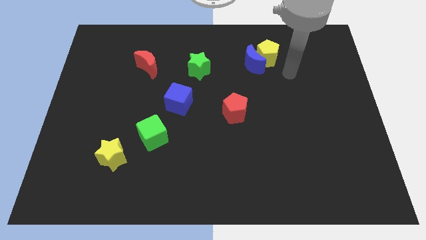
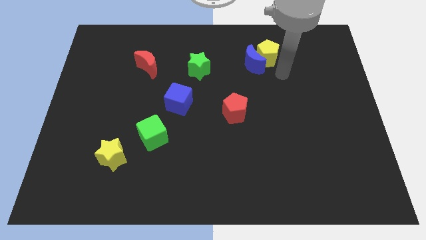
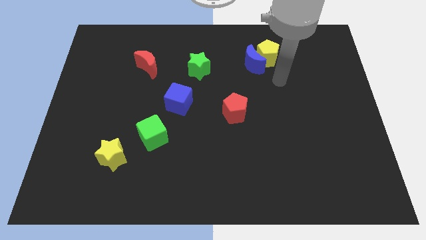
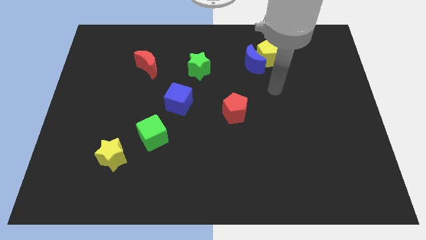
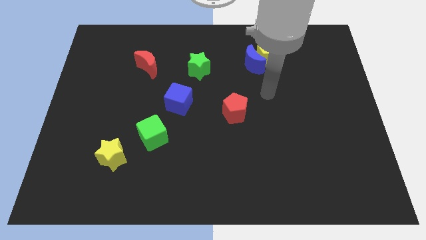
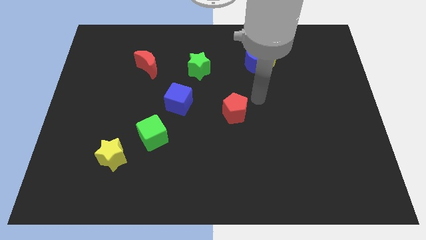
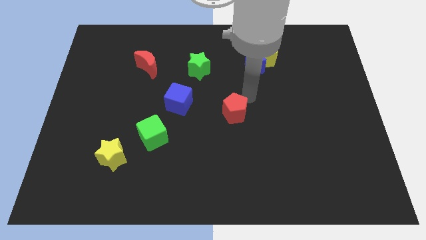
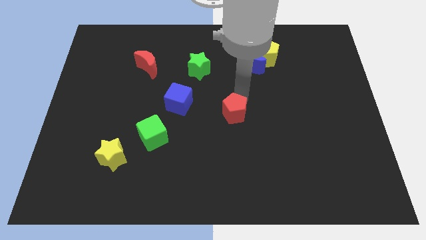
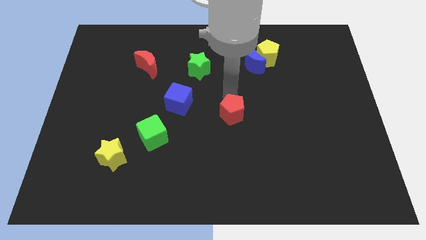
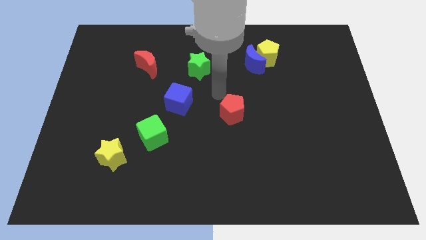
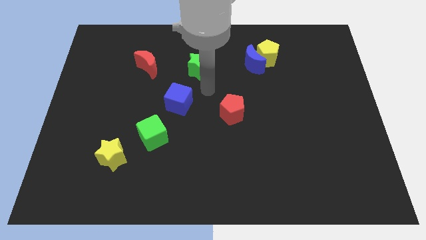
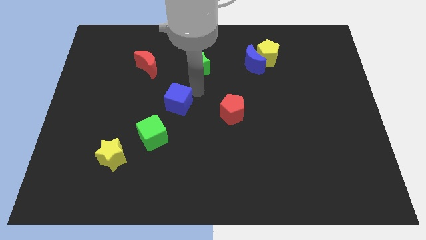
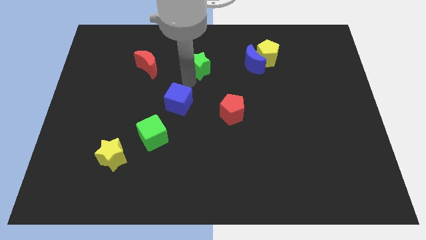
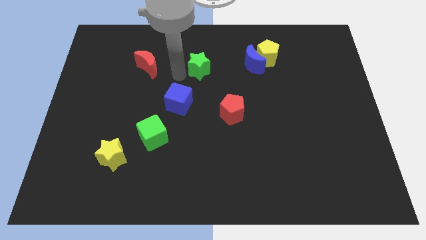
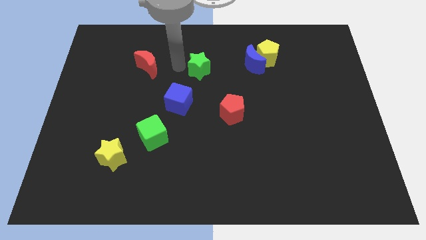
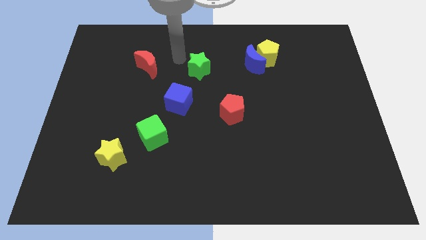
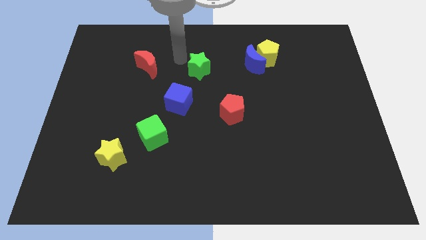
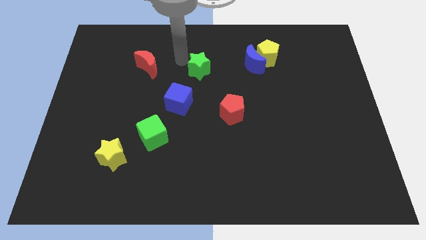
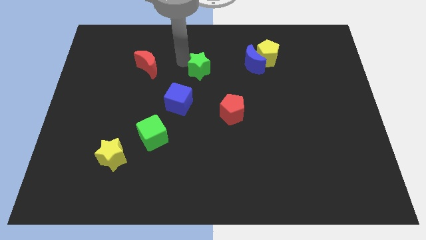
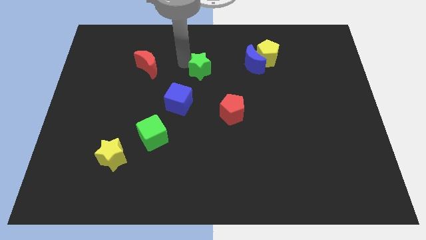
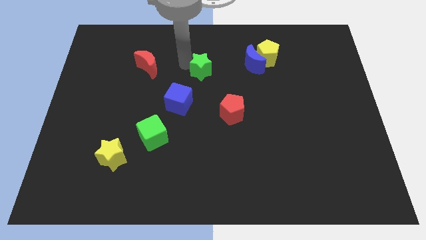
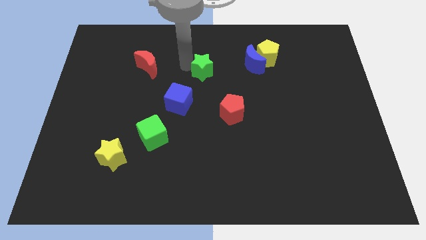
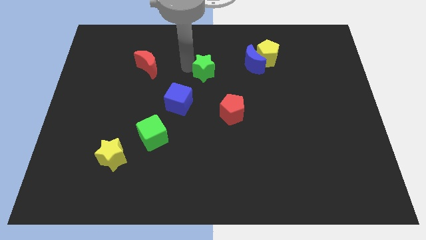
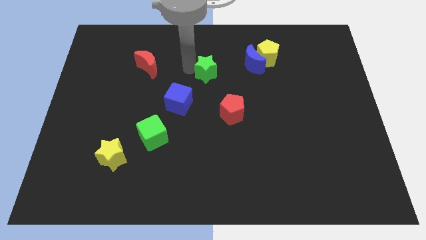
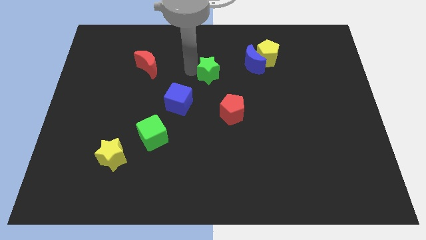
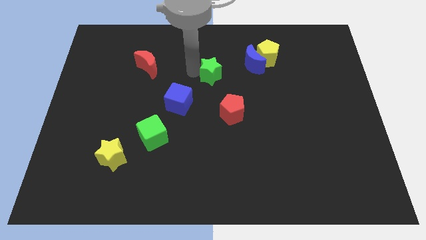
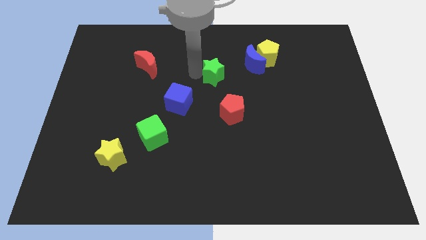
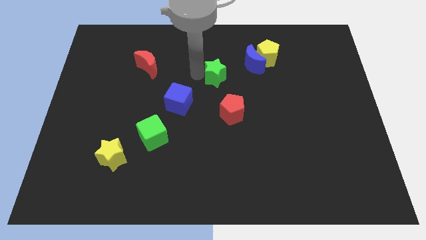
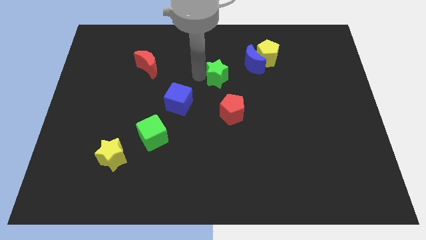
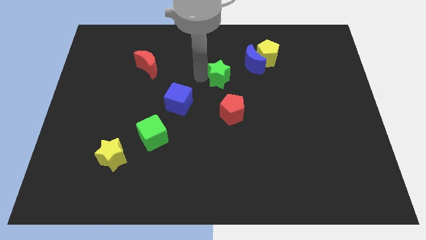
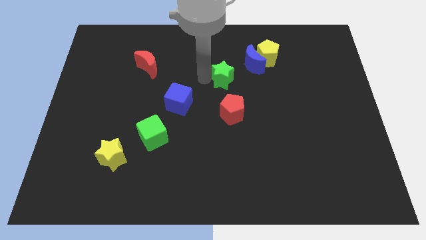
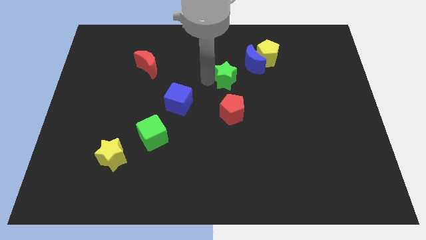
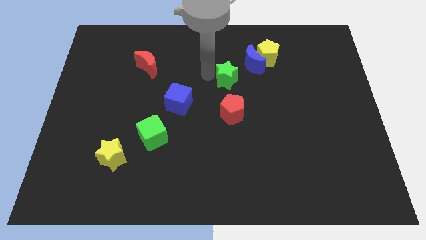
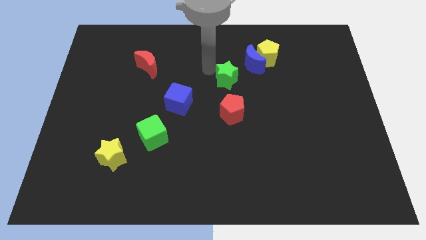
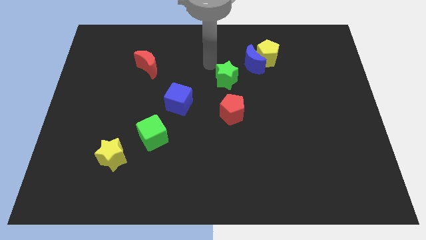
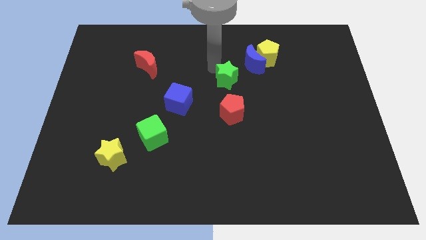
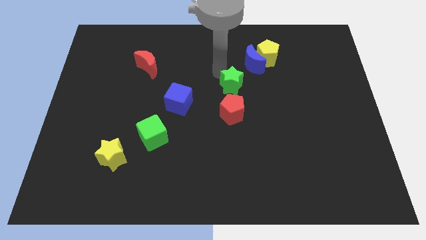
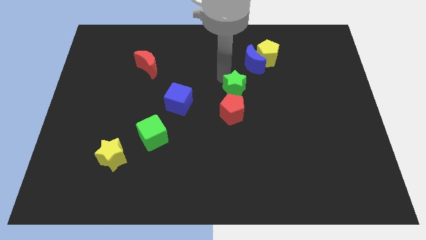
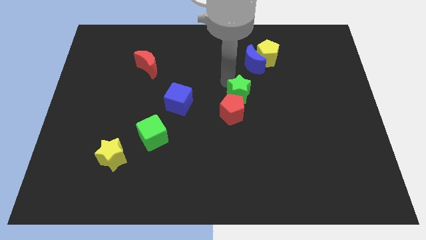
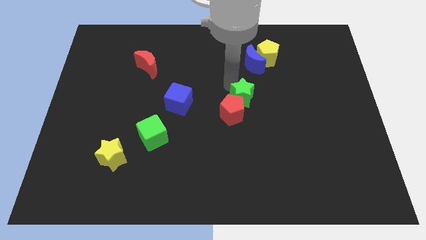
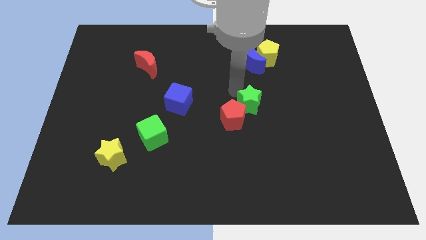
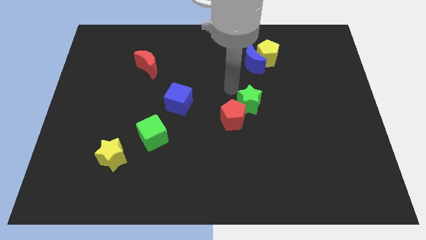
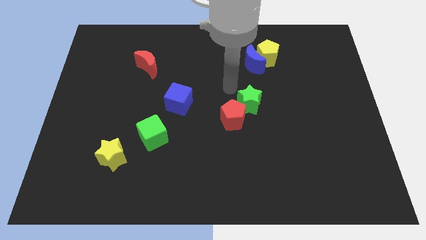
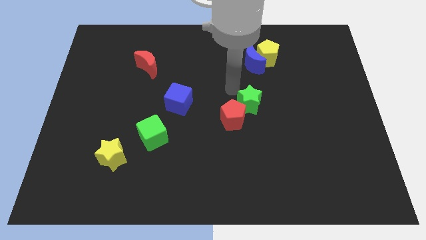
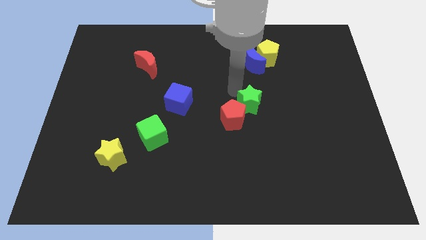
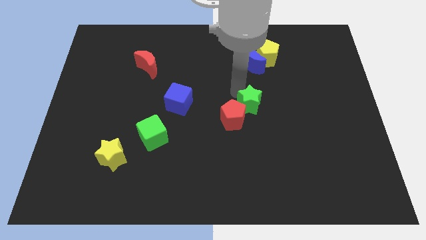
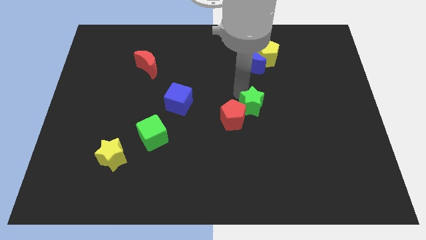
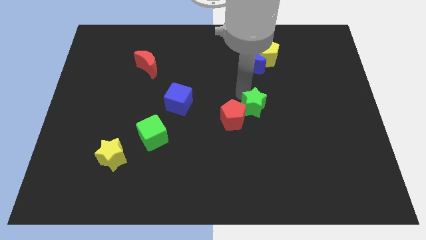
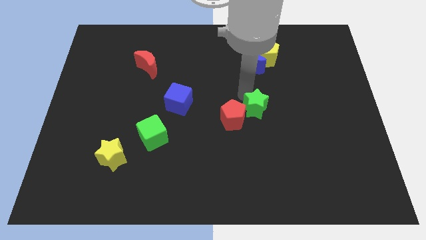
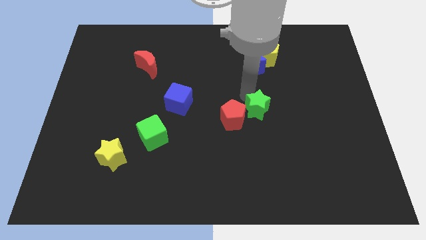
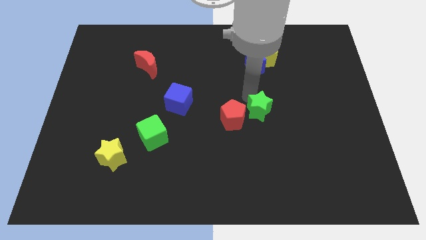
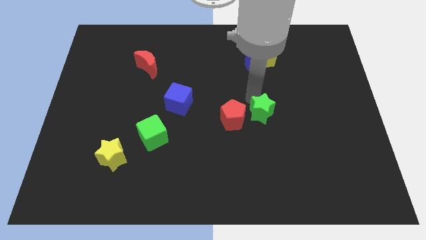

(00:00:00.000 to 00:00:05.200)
push the green star downwards and then to the right

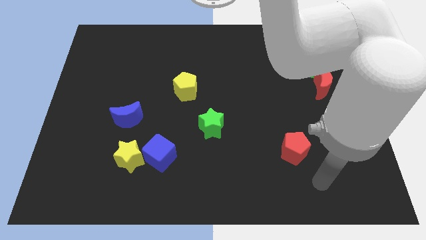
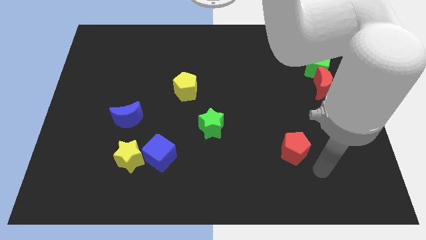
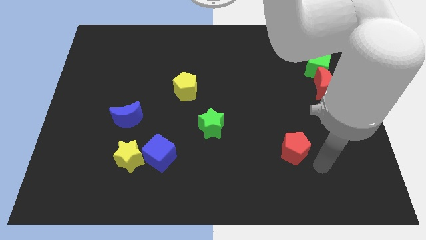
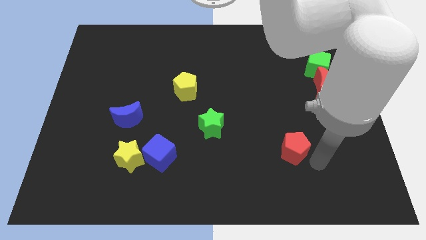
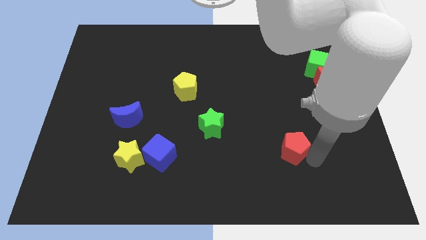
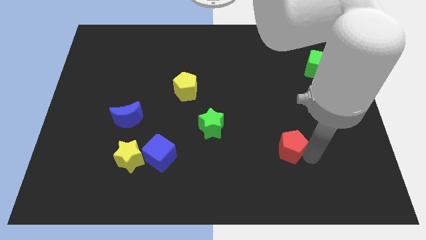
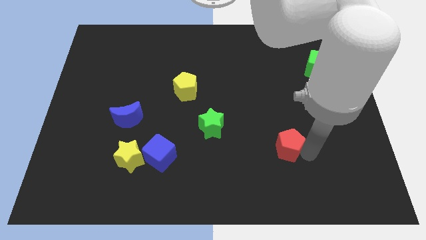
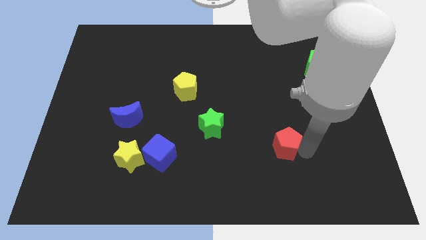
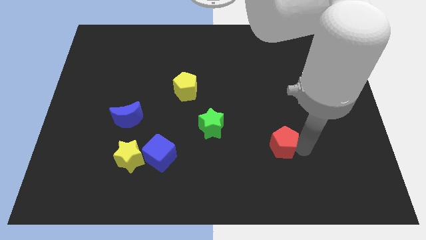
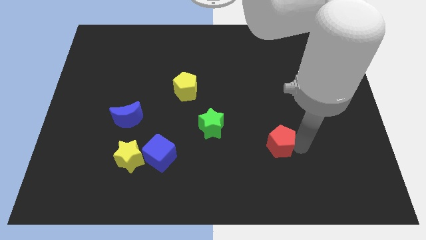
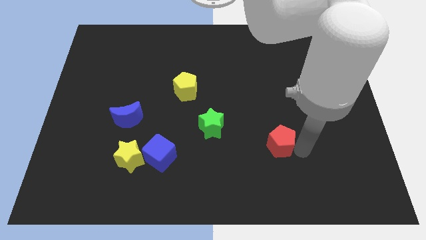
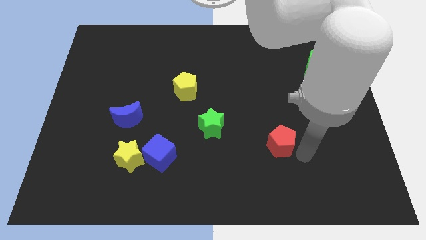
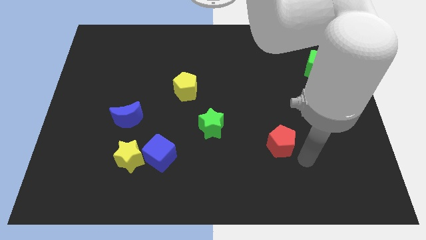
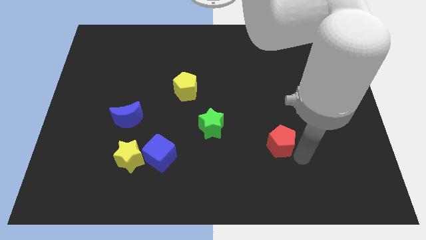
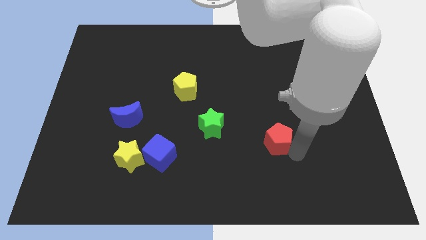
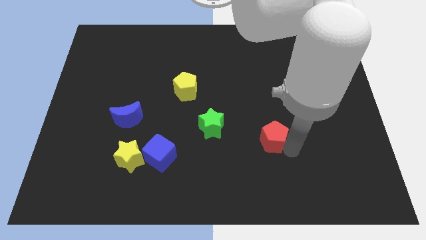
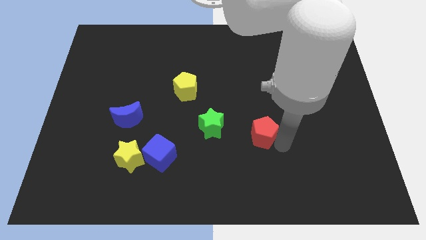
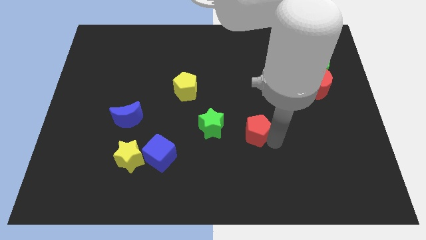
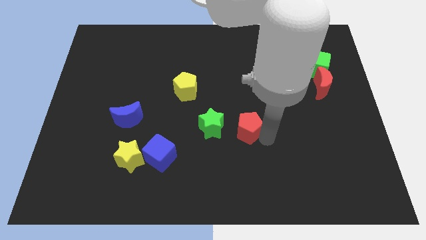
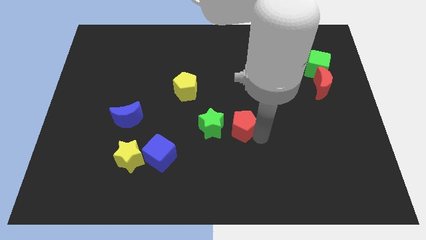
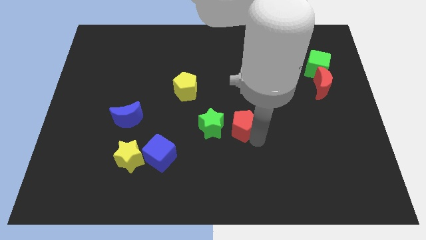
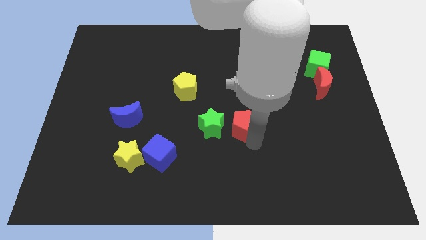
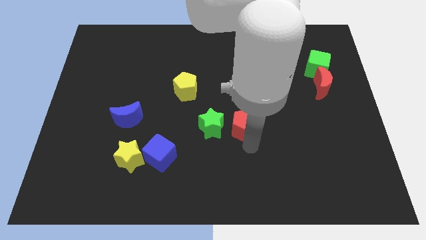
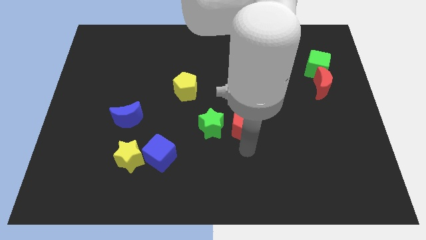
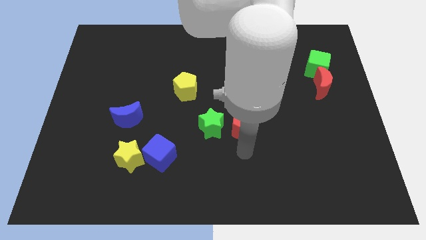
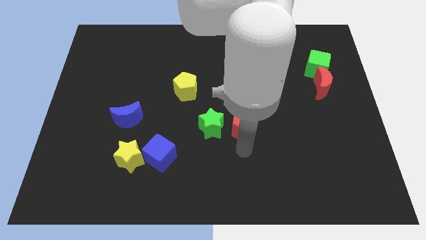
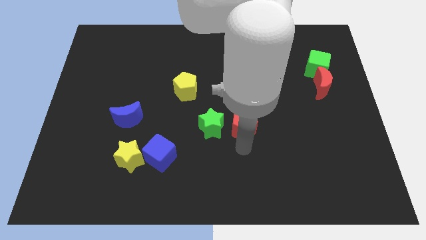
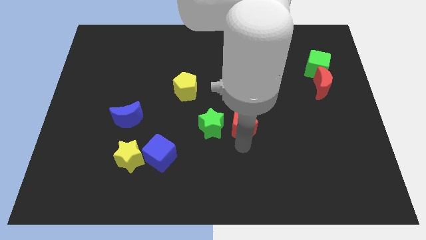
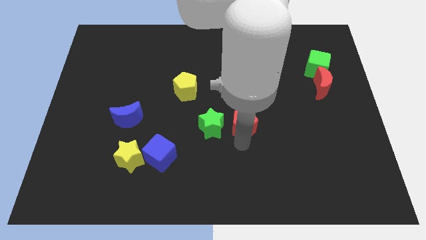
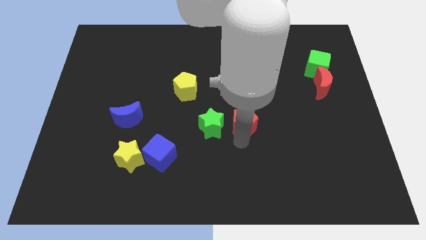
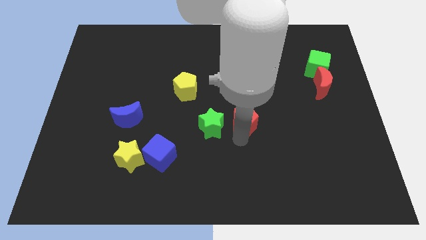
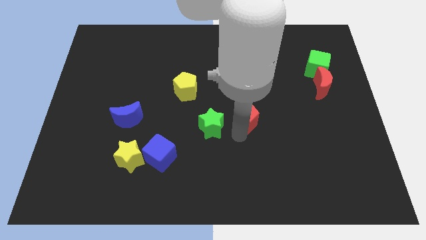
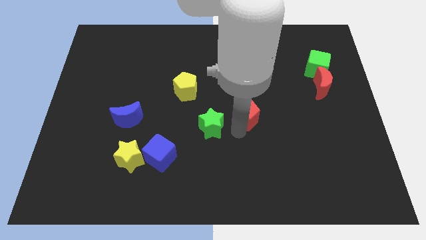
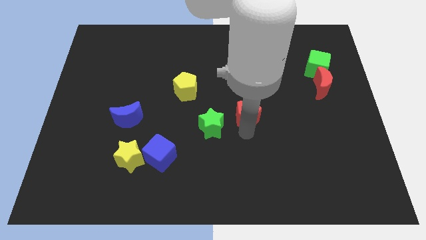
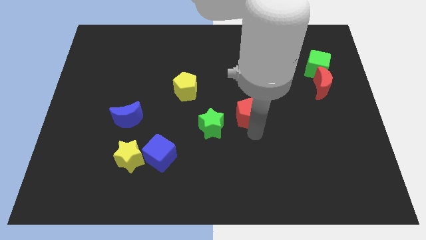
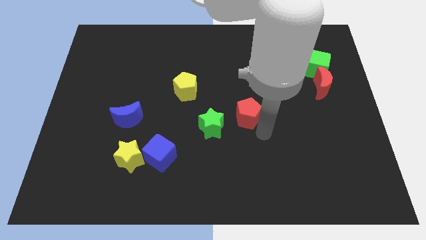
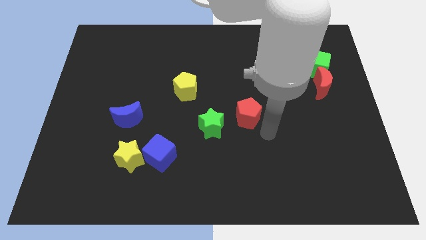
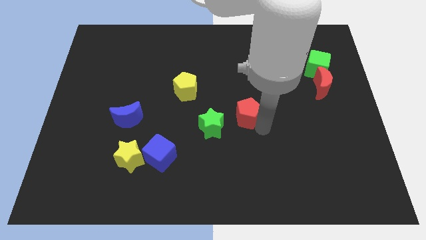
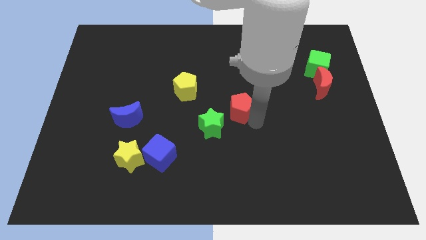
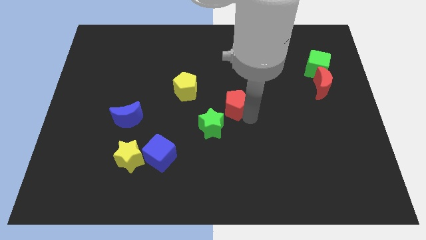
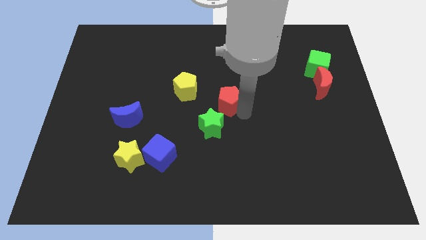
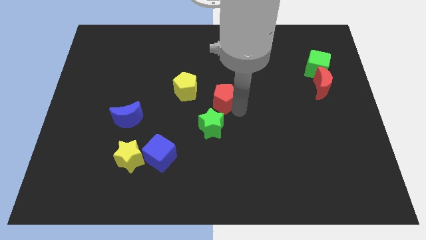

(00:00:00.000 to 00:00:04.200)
push the red pentagon up and left diagonally
